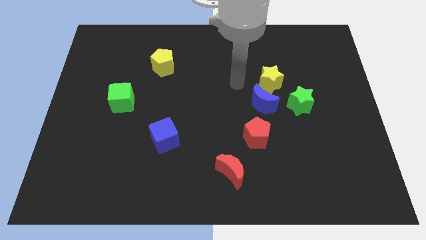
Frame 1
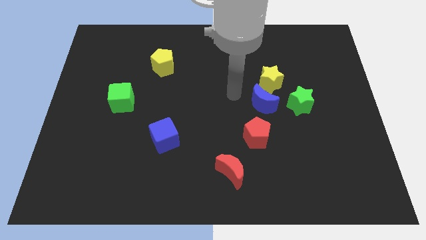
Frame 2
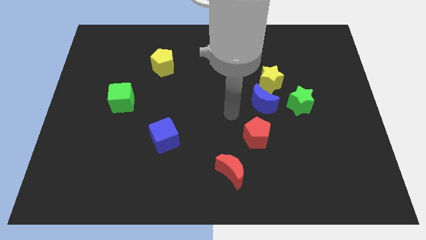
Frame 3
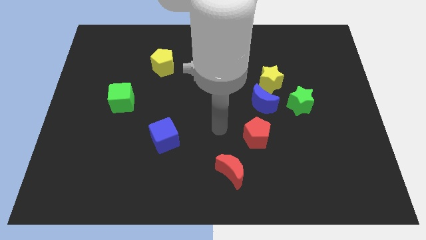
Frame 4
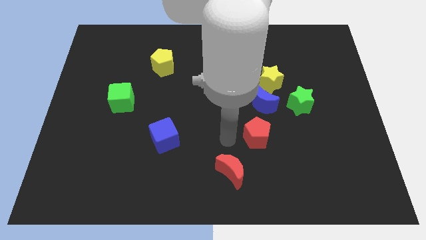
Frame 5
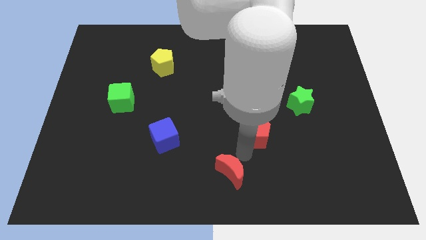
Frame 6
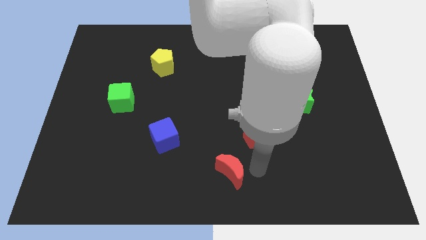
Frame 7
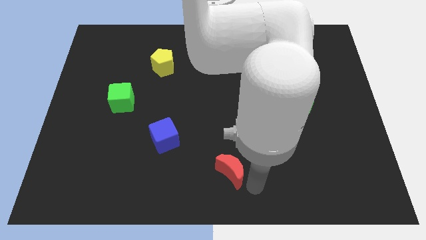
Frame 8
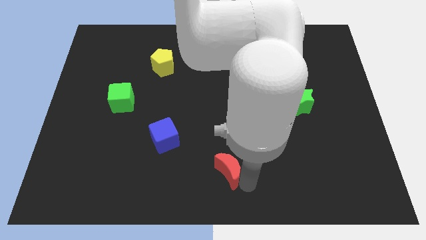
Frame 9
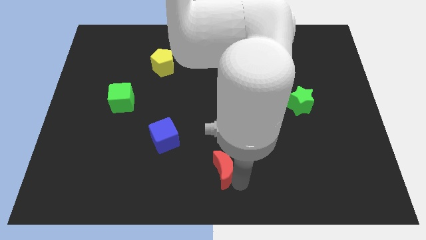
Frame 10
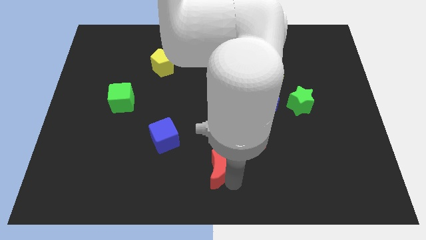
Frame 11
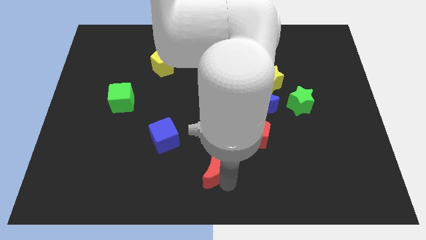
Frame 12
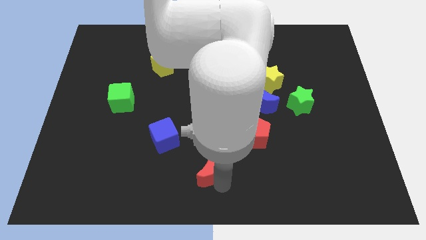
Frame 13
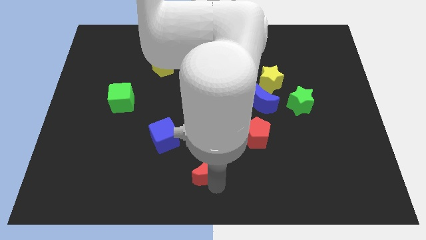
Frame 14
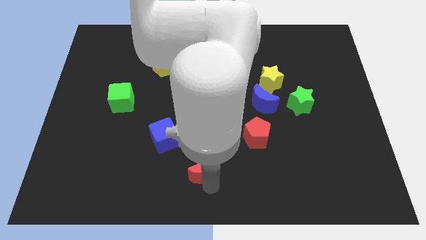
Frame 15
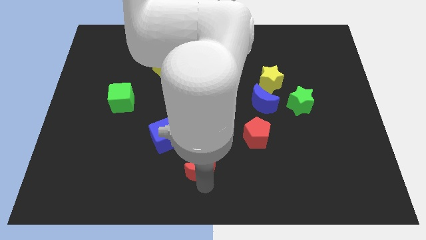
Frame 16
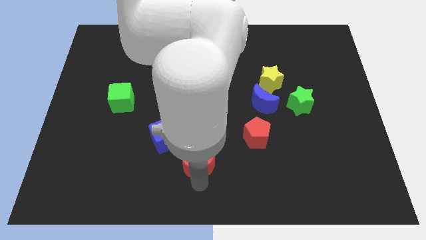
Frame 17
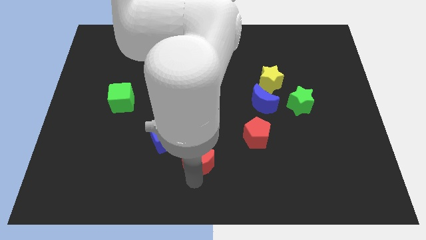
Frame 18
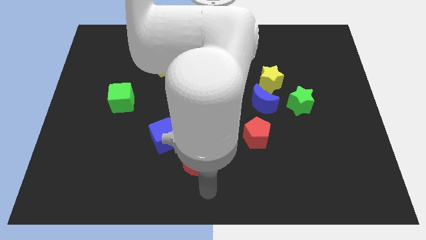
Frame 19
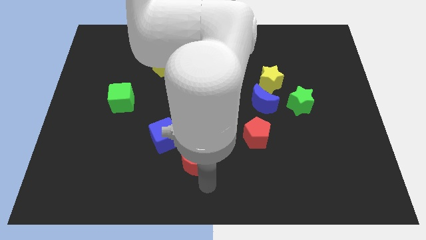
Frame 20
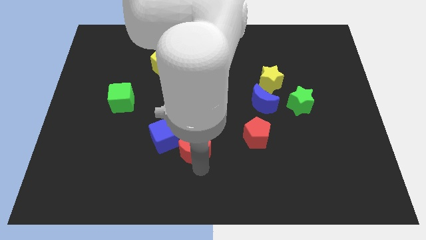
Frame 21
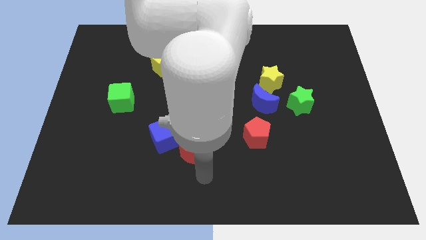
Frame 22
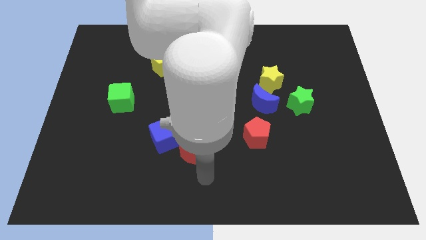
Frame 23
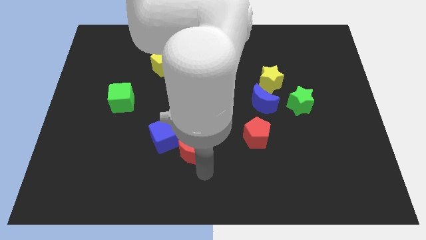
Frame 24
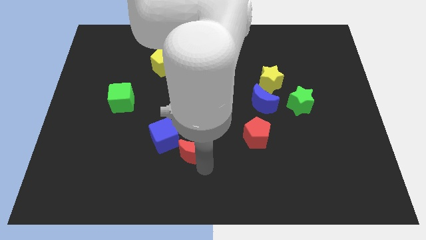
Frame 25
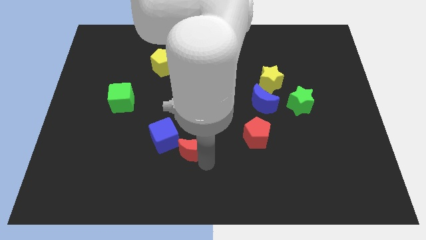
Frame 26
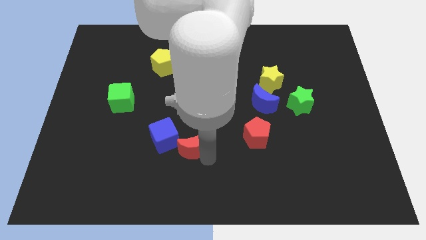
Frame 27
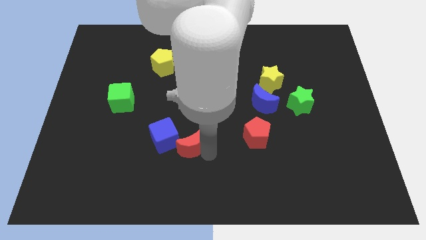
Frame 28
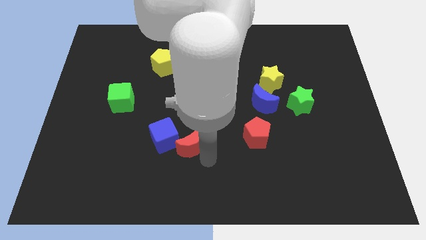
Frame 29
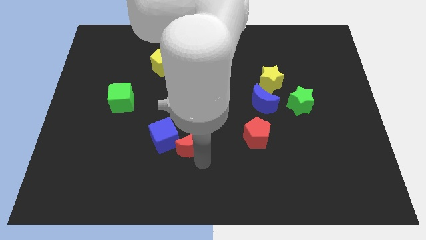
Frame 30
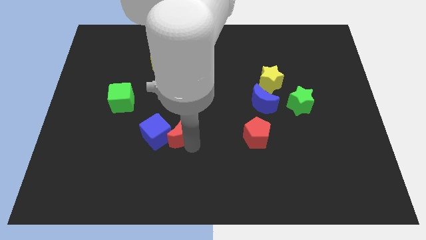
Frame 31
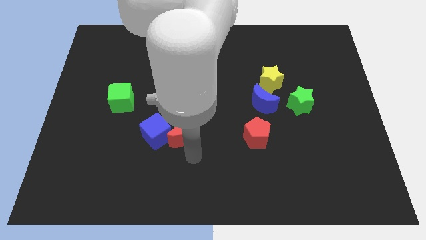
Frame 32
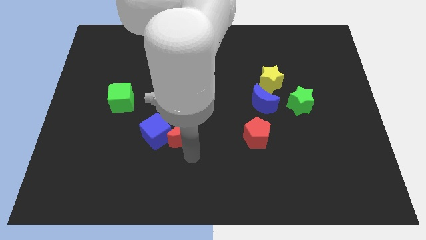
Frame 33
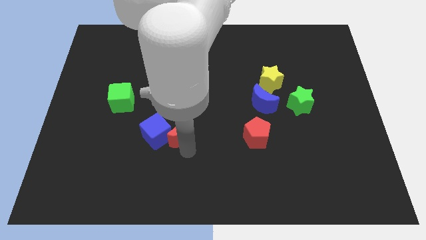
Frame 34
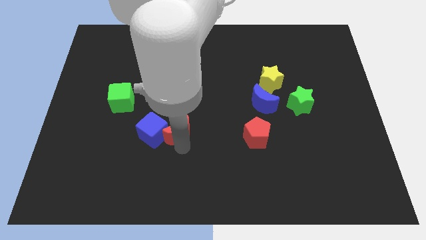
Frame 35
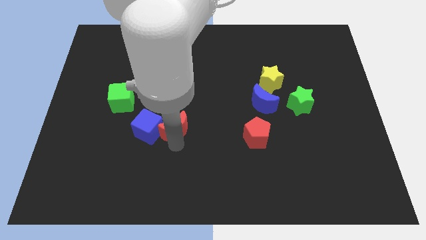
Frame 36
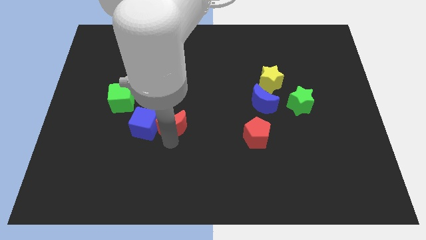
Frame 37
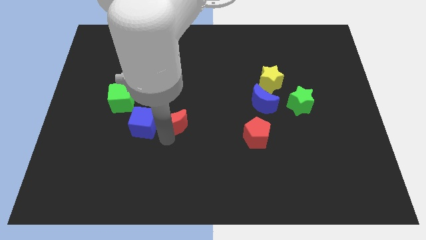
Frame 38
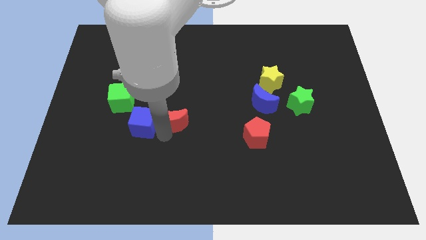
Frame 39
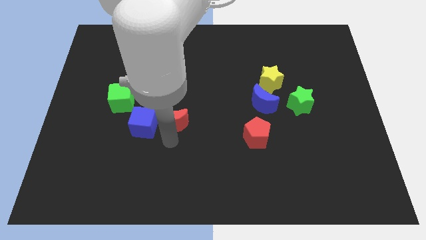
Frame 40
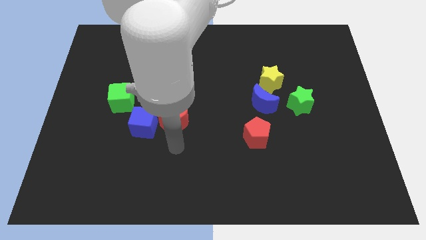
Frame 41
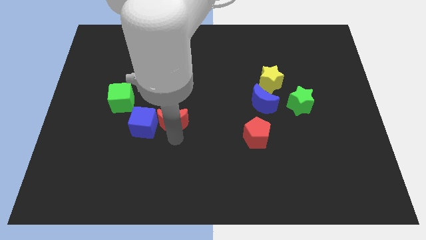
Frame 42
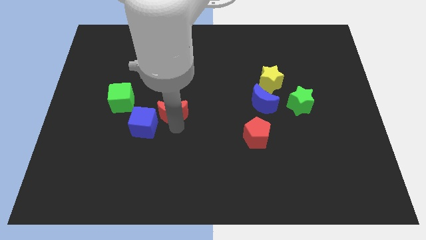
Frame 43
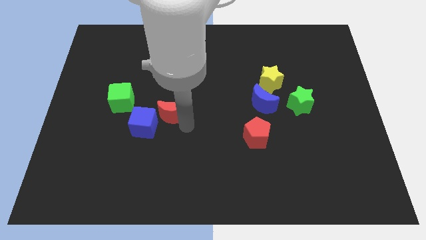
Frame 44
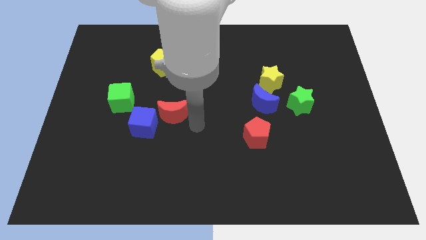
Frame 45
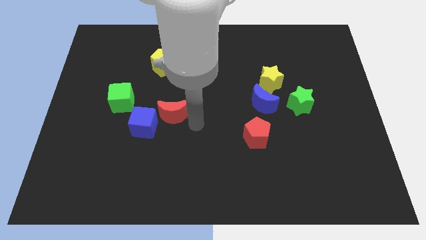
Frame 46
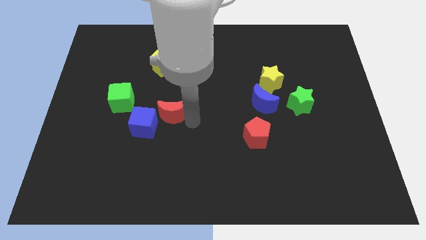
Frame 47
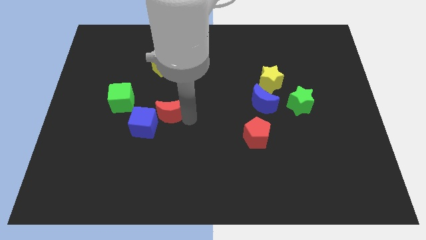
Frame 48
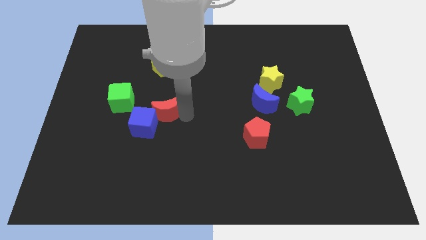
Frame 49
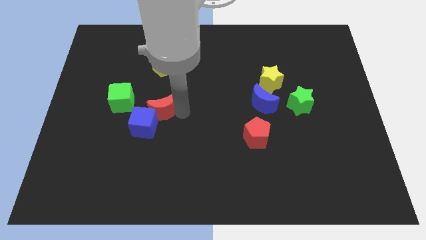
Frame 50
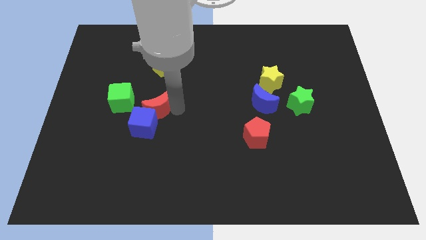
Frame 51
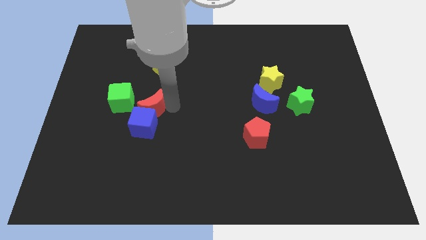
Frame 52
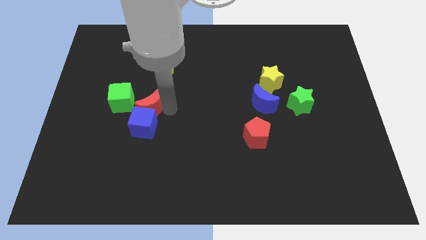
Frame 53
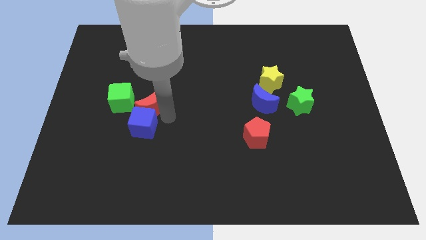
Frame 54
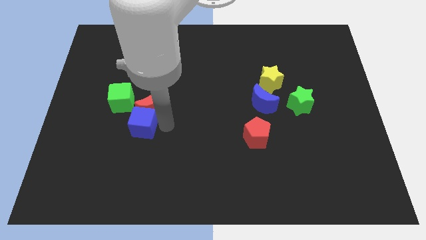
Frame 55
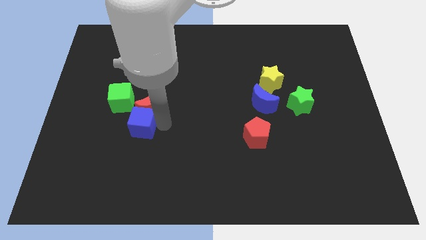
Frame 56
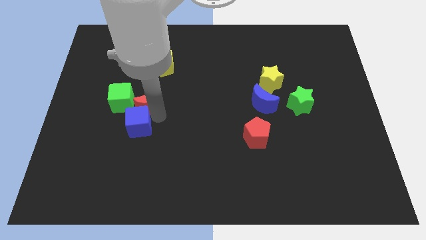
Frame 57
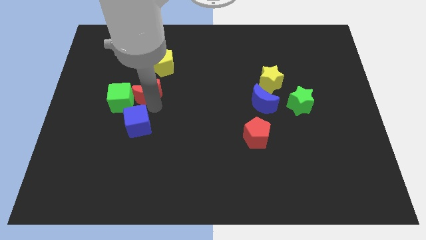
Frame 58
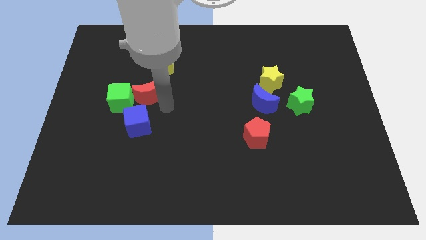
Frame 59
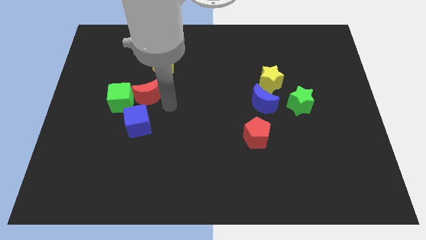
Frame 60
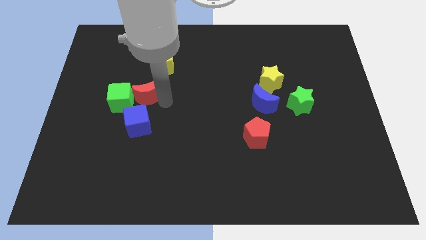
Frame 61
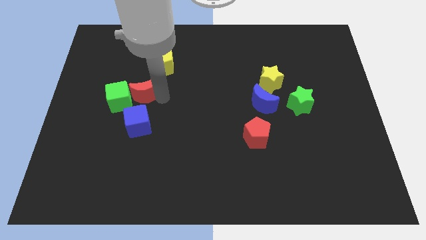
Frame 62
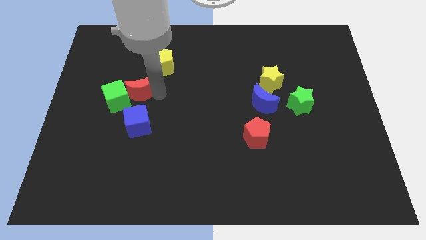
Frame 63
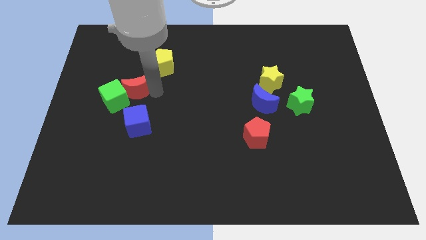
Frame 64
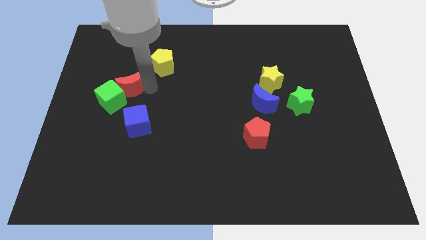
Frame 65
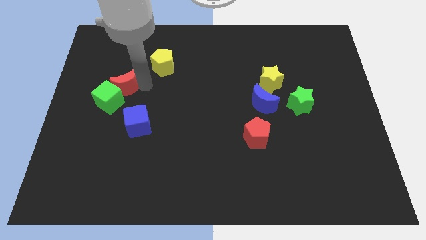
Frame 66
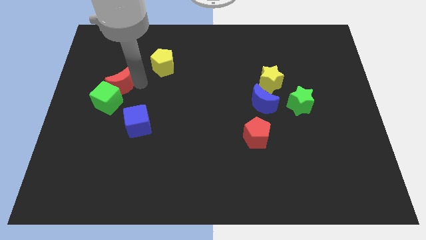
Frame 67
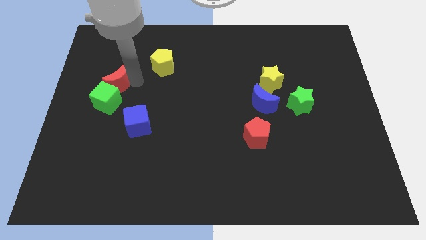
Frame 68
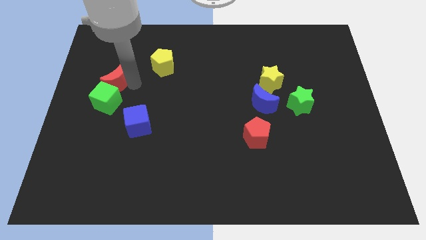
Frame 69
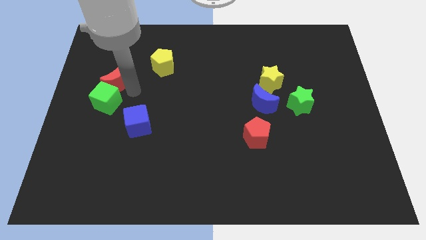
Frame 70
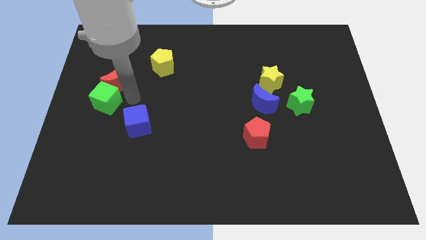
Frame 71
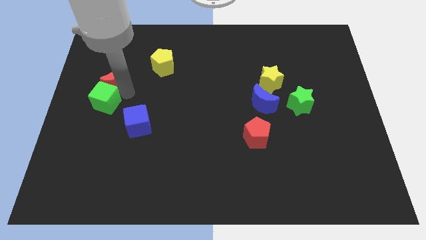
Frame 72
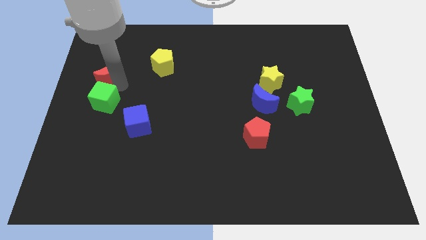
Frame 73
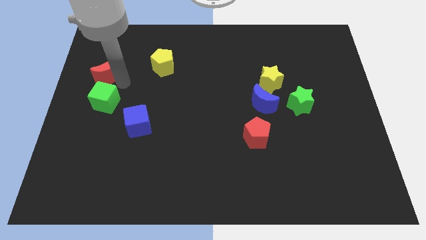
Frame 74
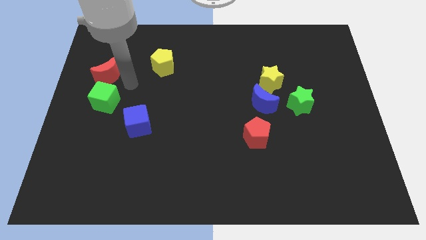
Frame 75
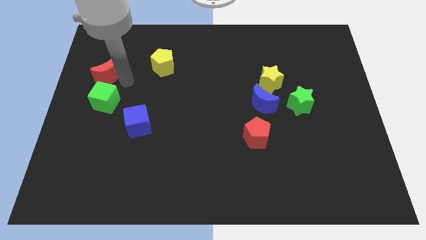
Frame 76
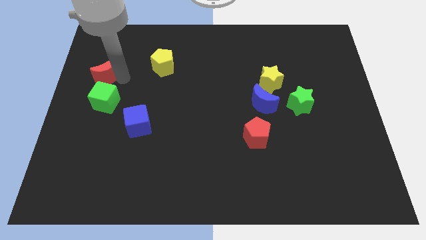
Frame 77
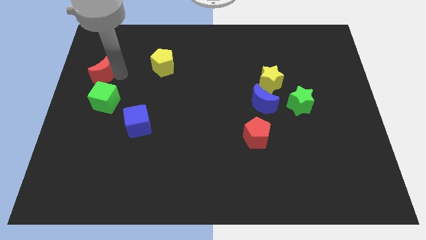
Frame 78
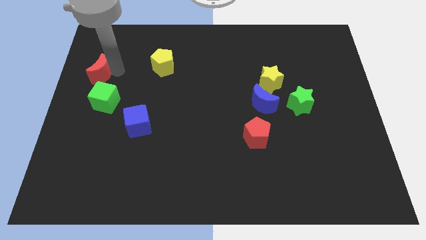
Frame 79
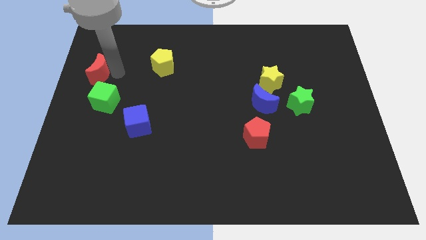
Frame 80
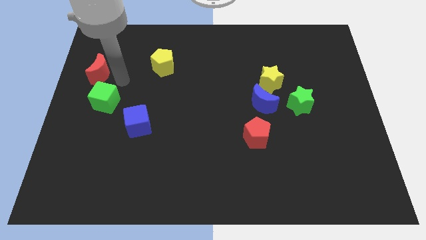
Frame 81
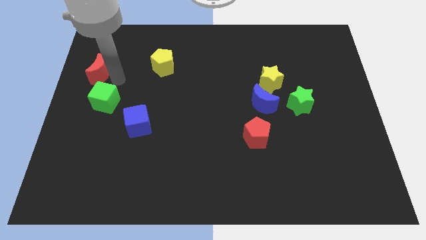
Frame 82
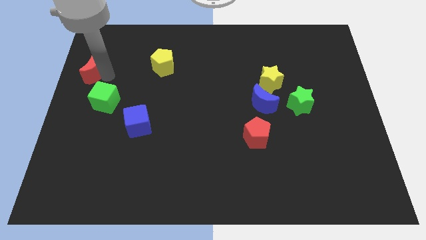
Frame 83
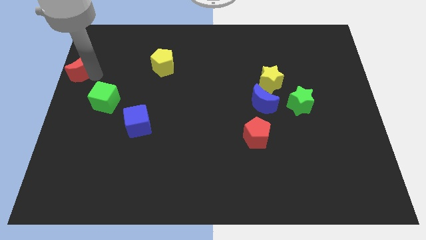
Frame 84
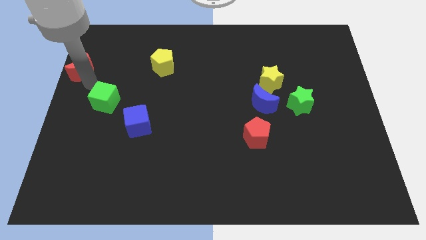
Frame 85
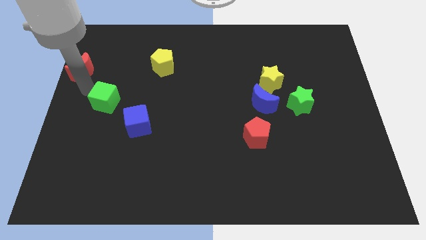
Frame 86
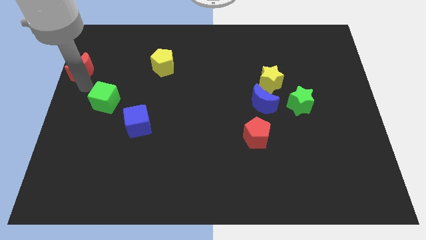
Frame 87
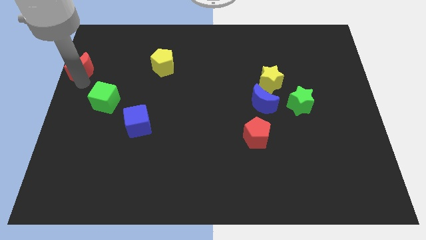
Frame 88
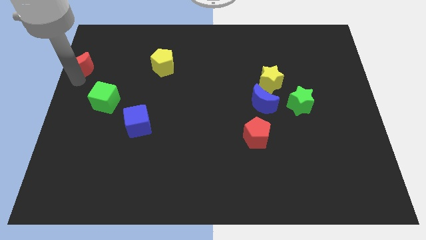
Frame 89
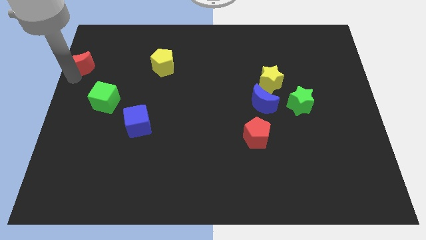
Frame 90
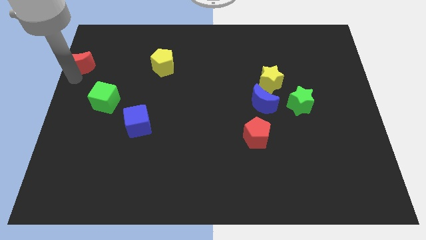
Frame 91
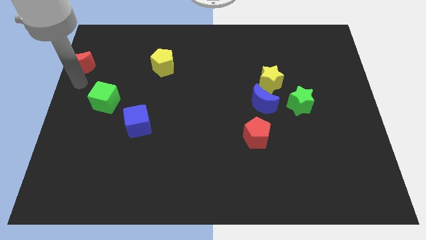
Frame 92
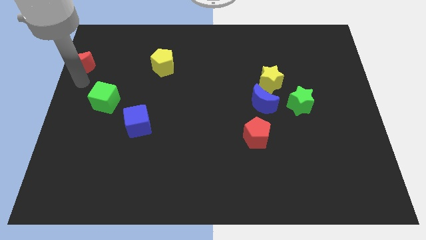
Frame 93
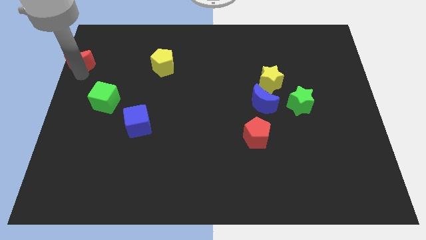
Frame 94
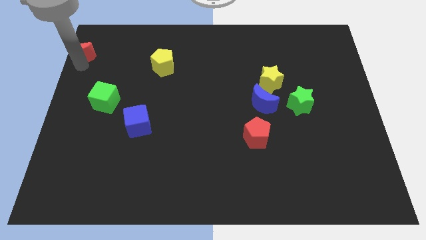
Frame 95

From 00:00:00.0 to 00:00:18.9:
move the red moon to the upper left corner
